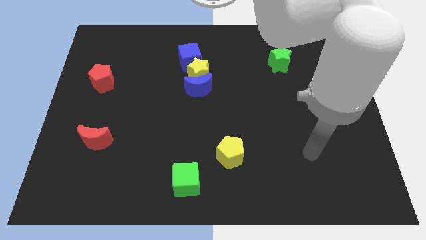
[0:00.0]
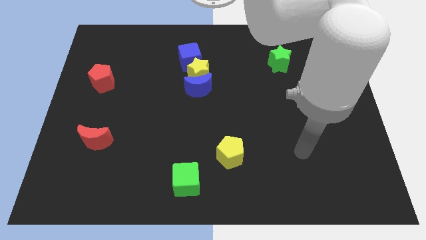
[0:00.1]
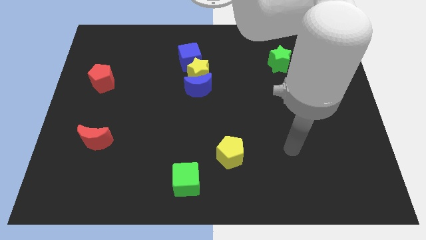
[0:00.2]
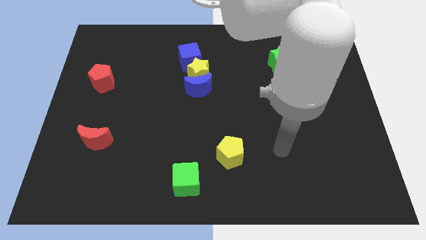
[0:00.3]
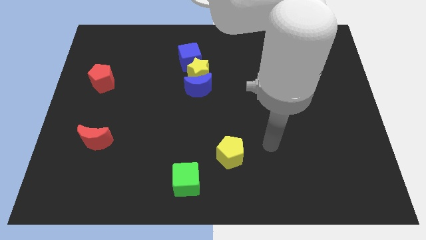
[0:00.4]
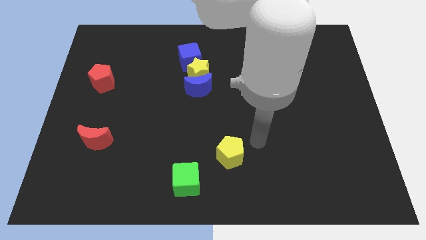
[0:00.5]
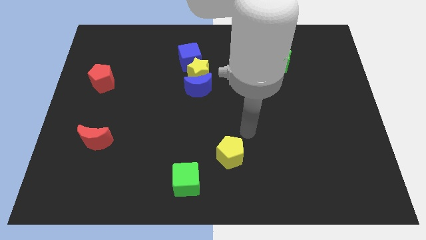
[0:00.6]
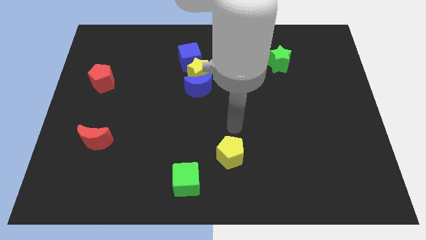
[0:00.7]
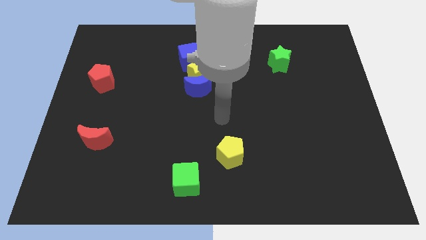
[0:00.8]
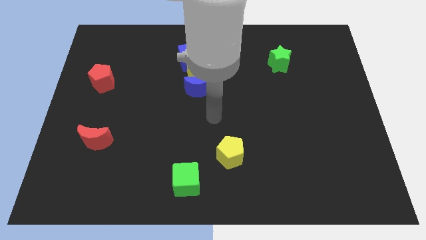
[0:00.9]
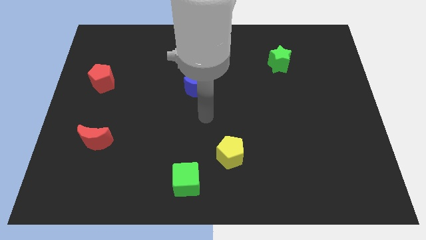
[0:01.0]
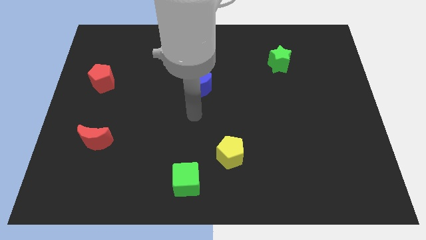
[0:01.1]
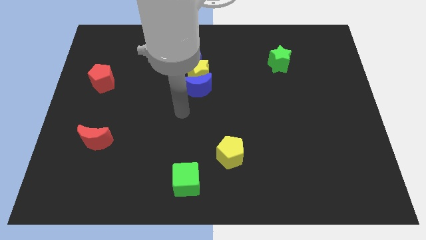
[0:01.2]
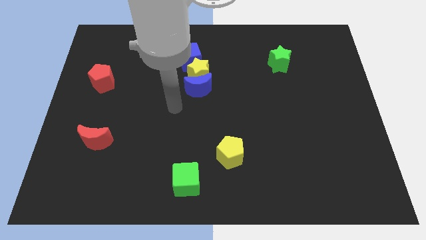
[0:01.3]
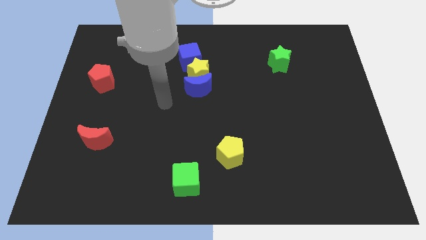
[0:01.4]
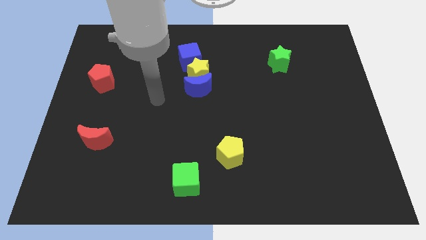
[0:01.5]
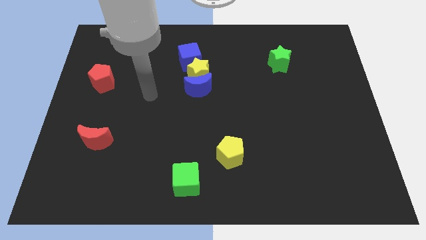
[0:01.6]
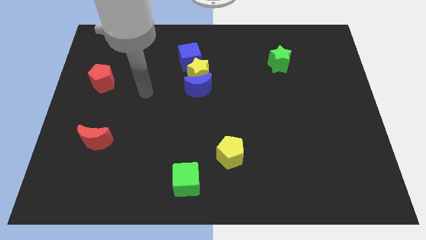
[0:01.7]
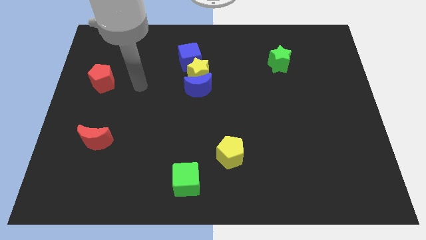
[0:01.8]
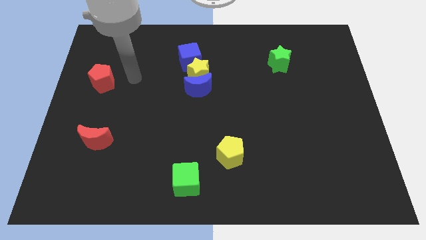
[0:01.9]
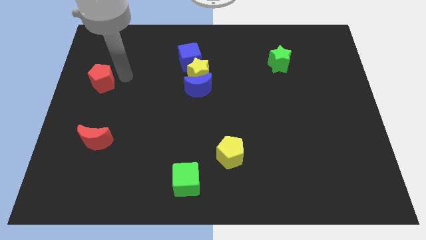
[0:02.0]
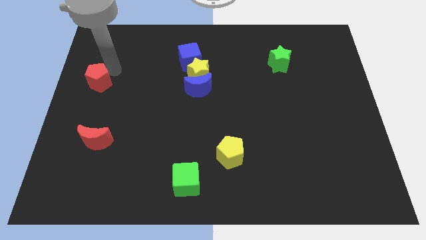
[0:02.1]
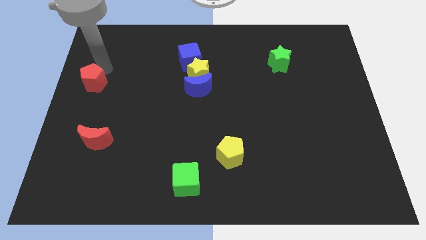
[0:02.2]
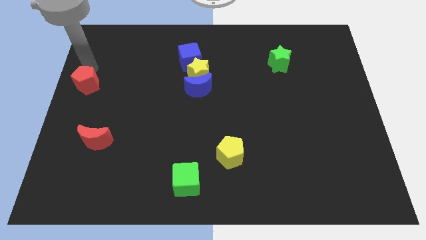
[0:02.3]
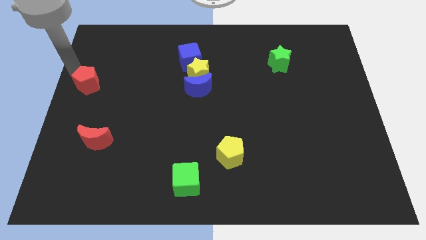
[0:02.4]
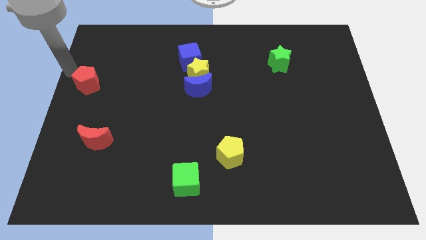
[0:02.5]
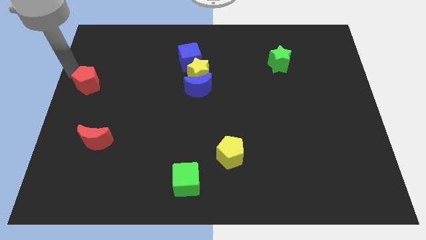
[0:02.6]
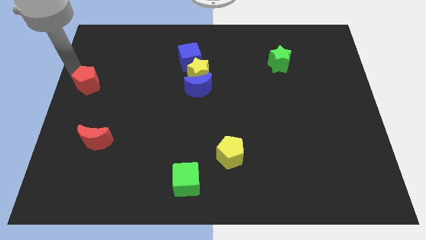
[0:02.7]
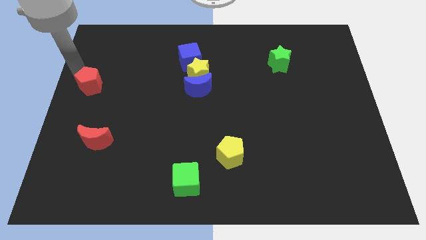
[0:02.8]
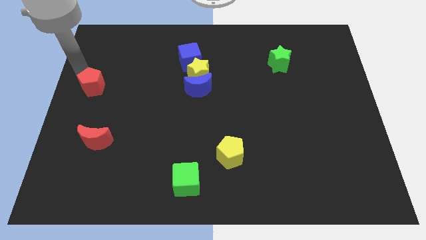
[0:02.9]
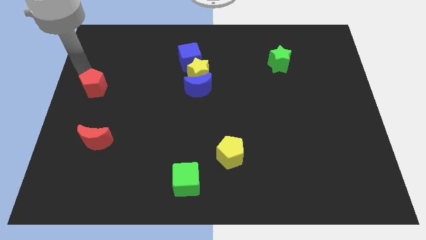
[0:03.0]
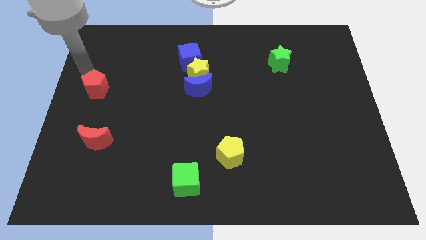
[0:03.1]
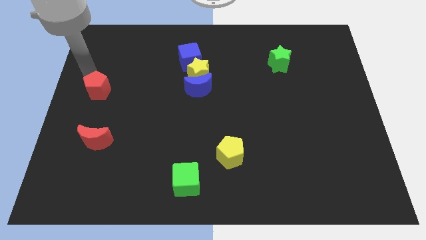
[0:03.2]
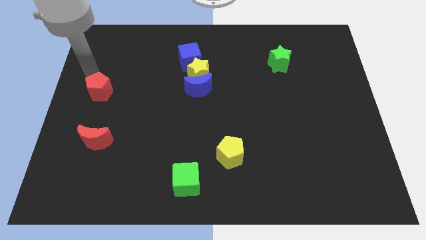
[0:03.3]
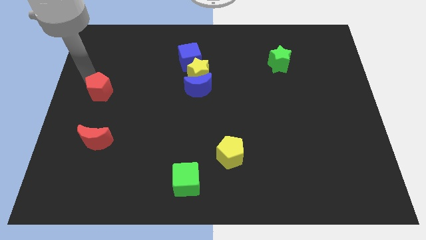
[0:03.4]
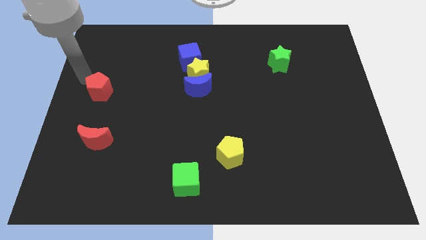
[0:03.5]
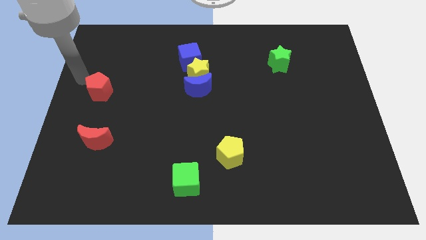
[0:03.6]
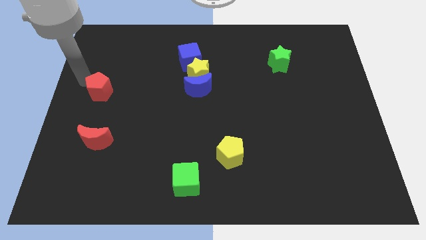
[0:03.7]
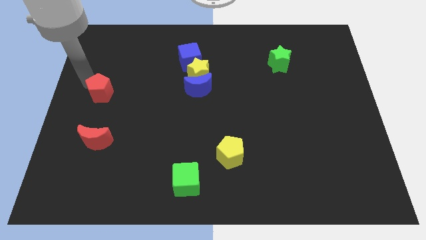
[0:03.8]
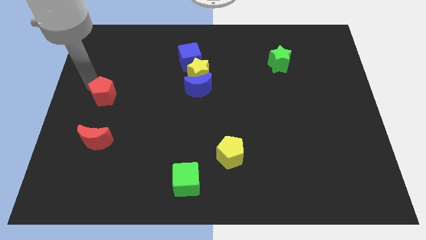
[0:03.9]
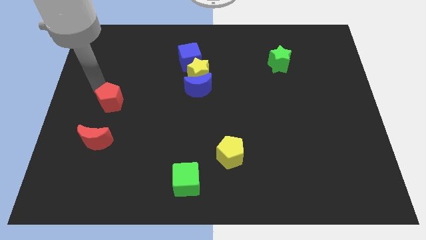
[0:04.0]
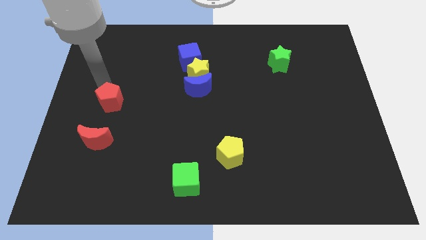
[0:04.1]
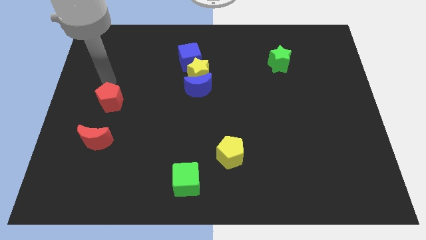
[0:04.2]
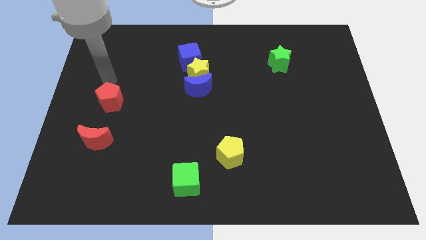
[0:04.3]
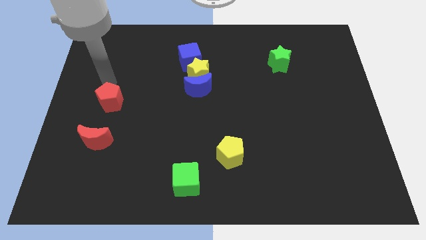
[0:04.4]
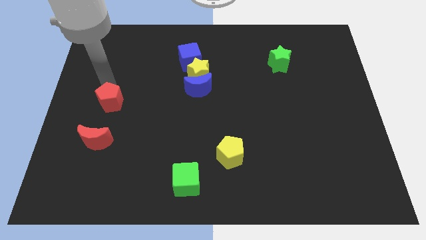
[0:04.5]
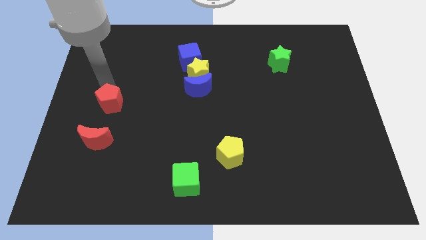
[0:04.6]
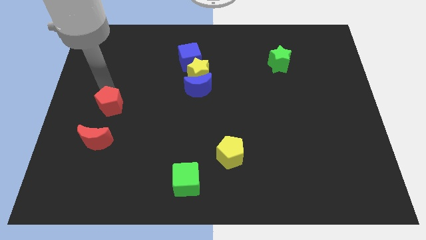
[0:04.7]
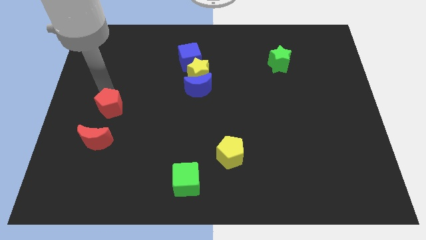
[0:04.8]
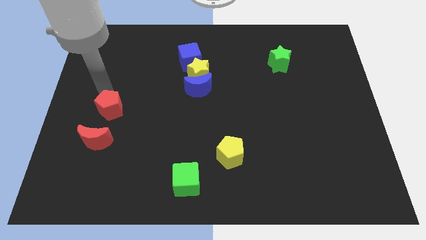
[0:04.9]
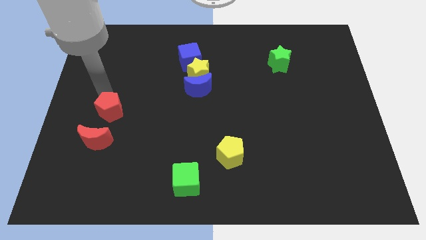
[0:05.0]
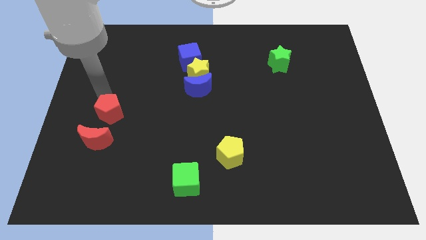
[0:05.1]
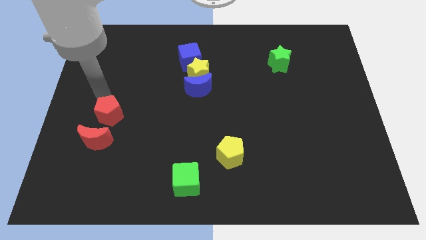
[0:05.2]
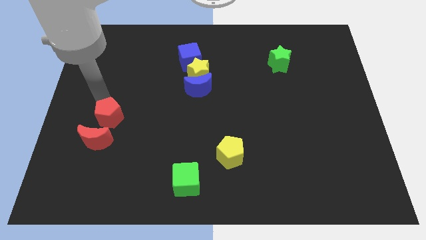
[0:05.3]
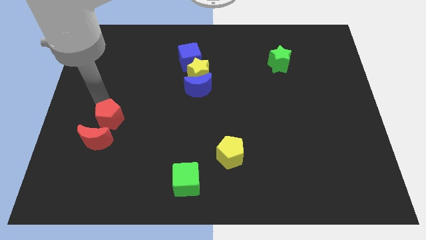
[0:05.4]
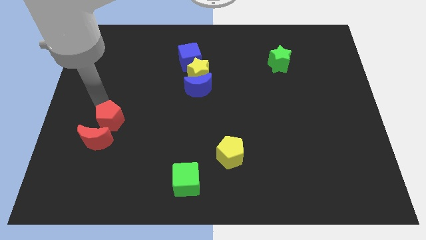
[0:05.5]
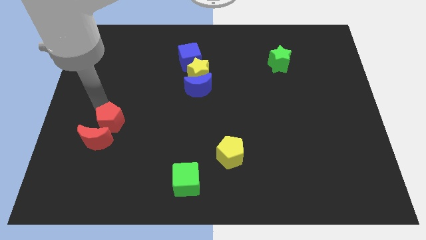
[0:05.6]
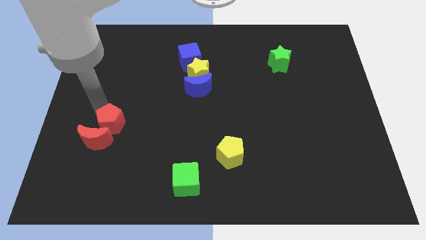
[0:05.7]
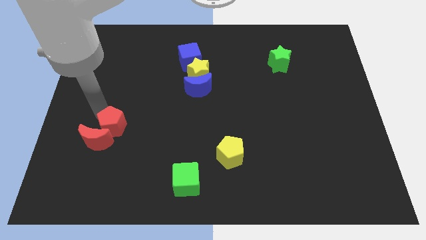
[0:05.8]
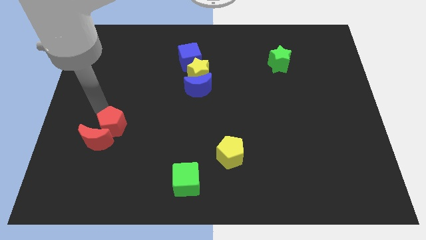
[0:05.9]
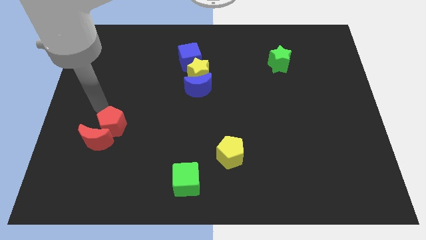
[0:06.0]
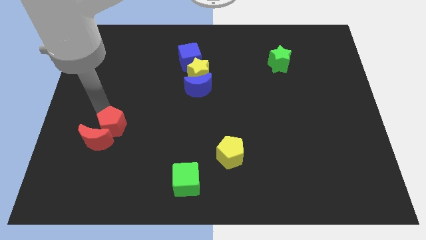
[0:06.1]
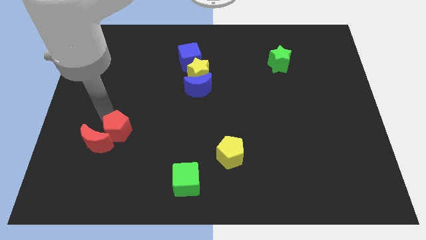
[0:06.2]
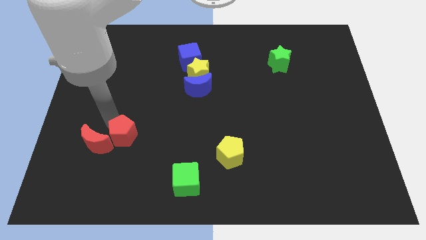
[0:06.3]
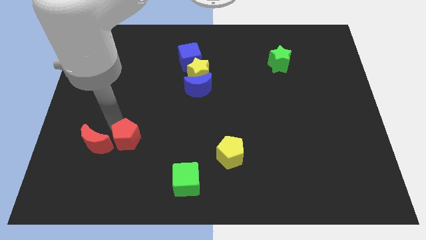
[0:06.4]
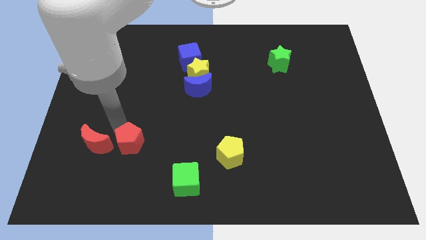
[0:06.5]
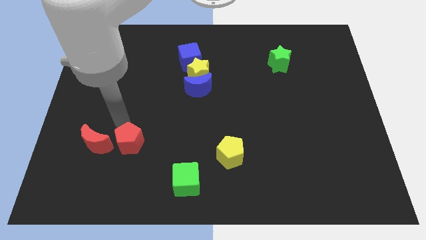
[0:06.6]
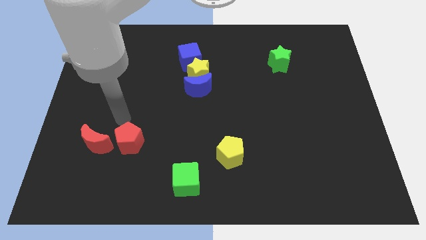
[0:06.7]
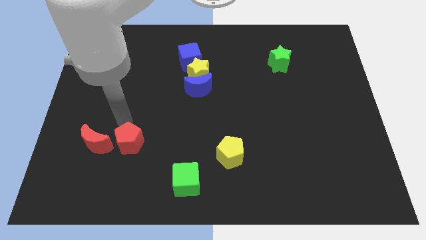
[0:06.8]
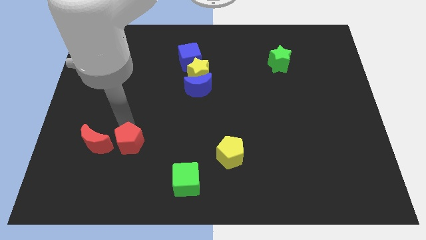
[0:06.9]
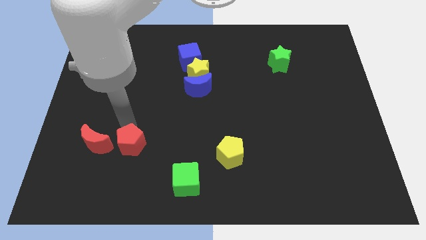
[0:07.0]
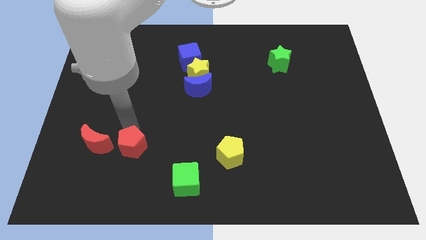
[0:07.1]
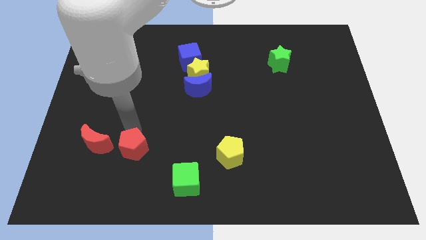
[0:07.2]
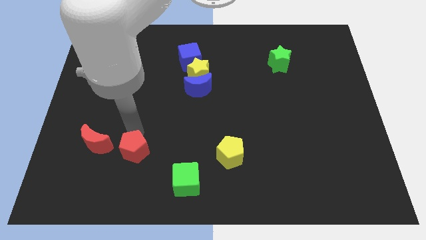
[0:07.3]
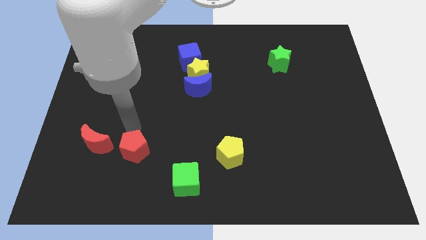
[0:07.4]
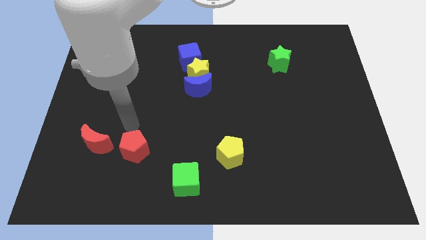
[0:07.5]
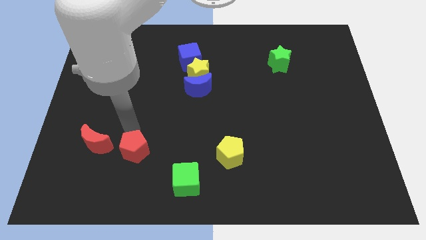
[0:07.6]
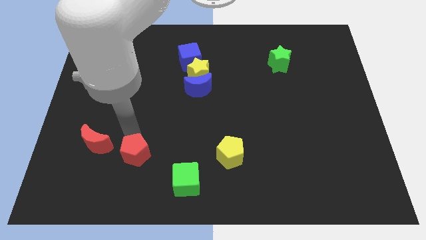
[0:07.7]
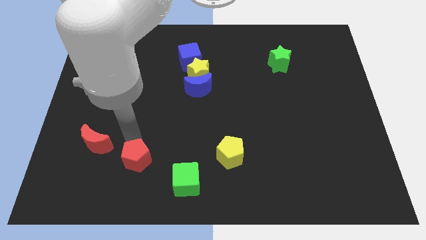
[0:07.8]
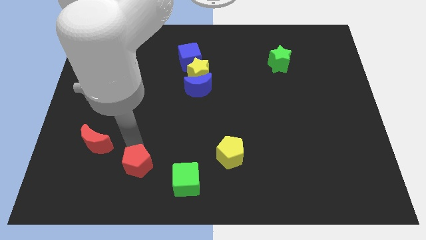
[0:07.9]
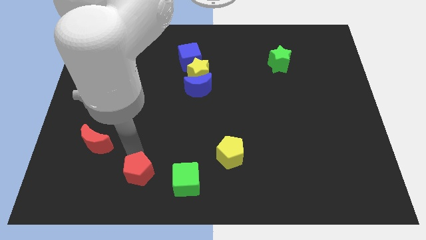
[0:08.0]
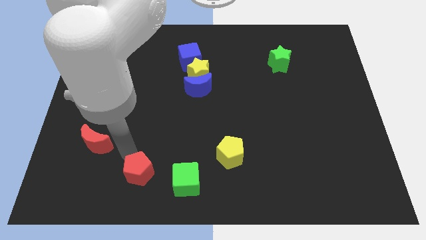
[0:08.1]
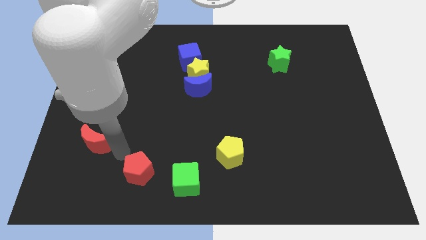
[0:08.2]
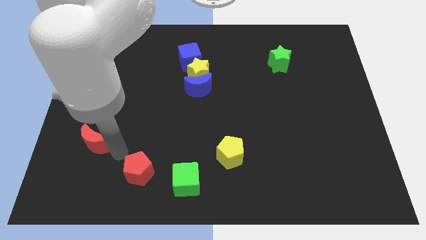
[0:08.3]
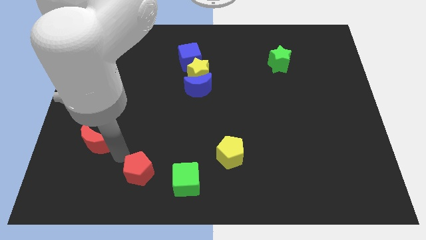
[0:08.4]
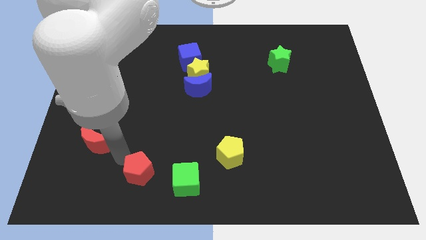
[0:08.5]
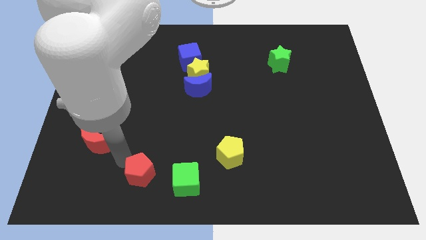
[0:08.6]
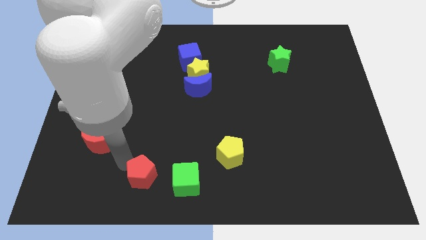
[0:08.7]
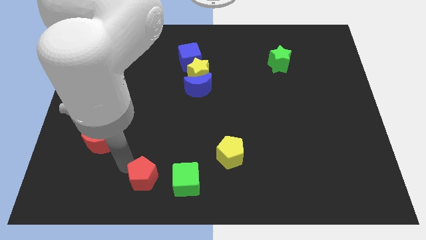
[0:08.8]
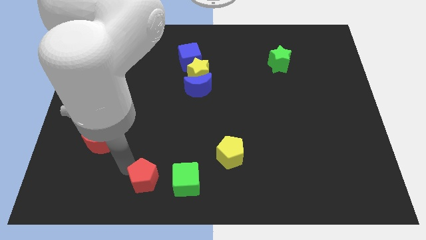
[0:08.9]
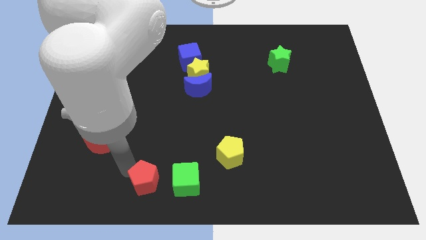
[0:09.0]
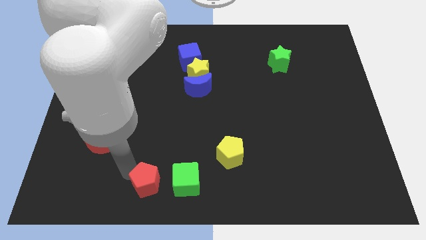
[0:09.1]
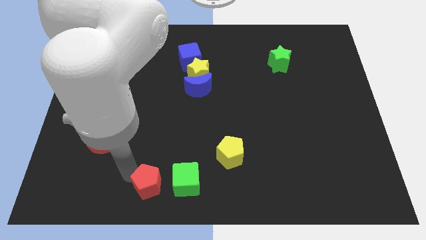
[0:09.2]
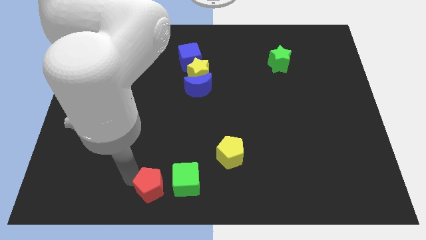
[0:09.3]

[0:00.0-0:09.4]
move the red pentagon to the bottom
